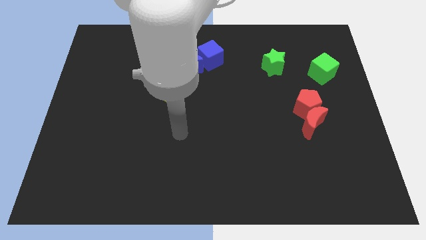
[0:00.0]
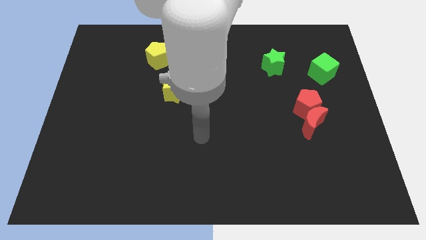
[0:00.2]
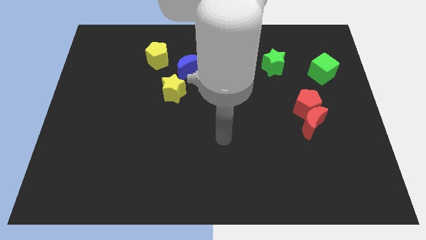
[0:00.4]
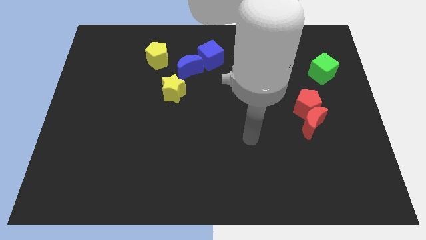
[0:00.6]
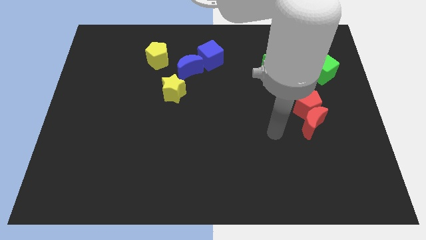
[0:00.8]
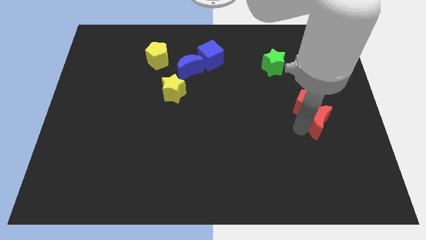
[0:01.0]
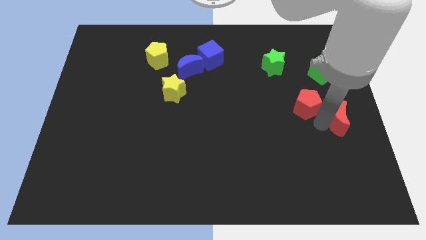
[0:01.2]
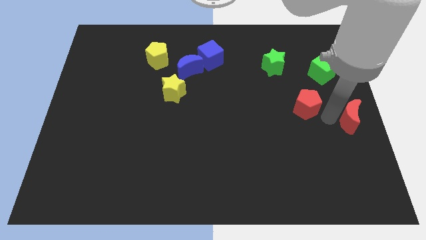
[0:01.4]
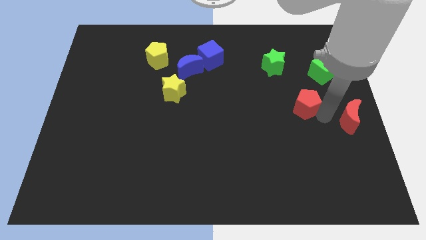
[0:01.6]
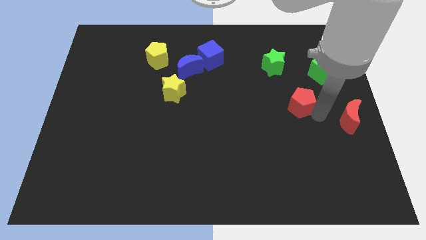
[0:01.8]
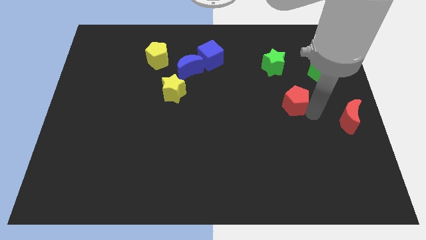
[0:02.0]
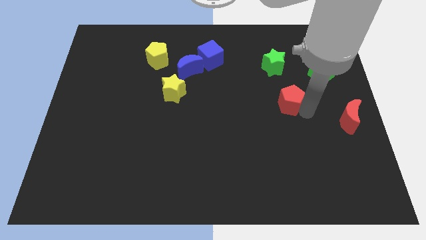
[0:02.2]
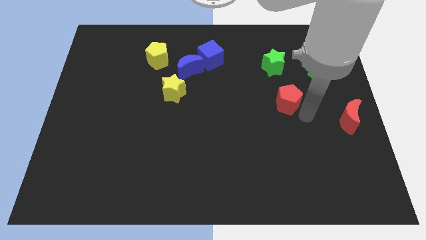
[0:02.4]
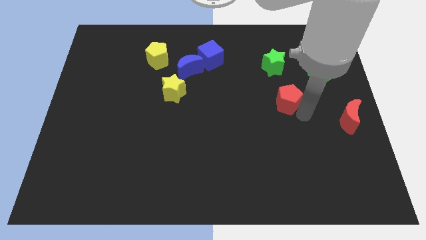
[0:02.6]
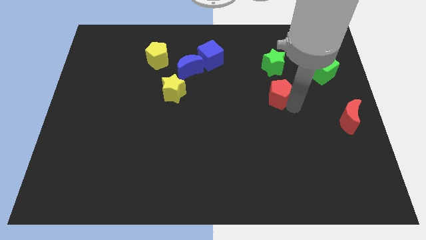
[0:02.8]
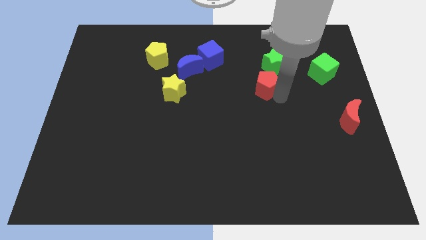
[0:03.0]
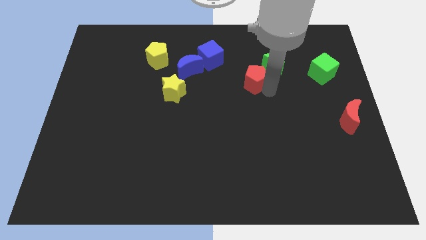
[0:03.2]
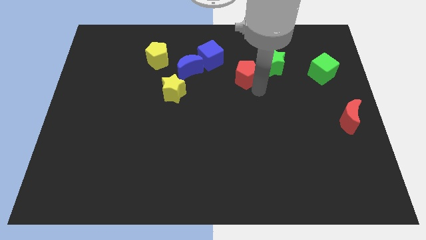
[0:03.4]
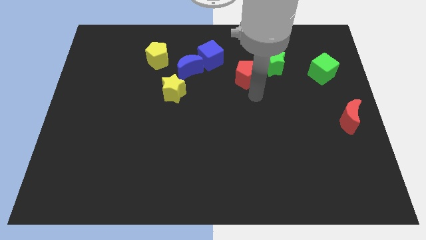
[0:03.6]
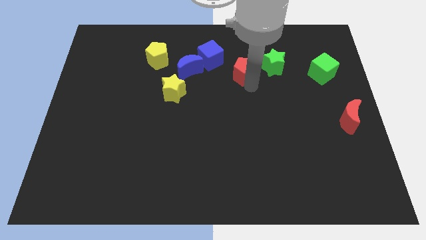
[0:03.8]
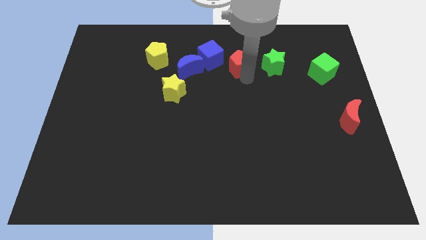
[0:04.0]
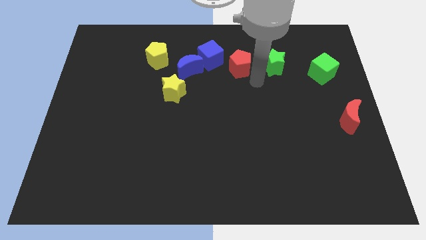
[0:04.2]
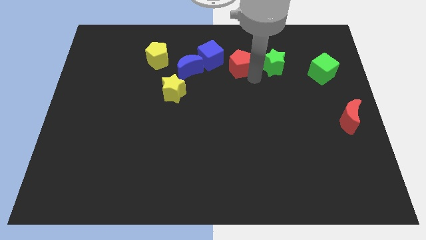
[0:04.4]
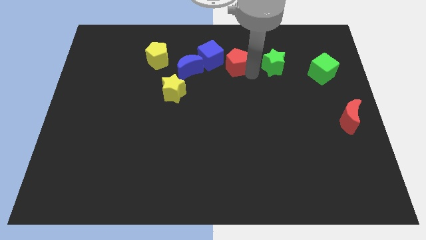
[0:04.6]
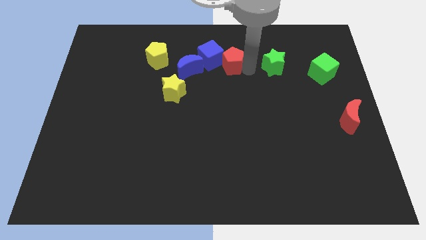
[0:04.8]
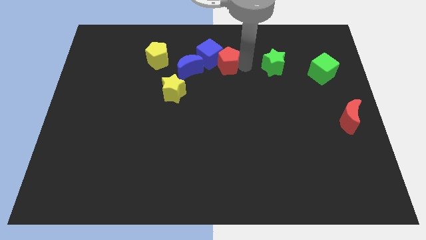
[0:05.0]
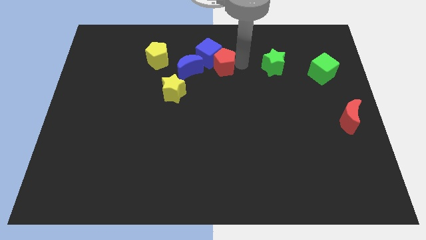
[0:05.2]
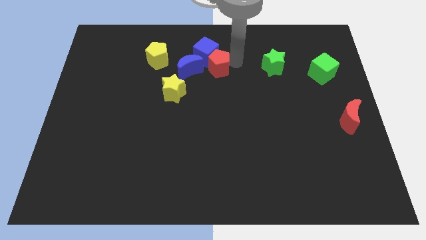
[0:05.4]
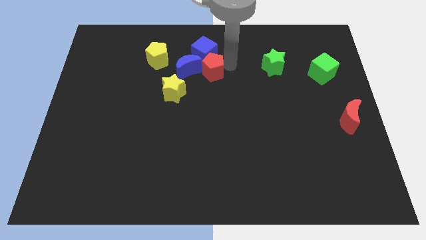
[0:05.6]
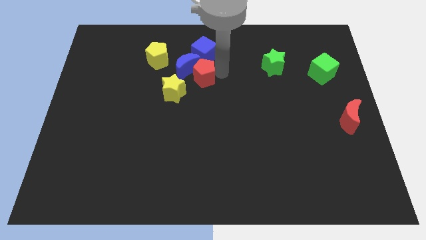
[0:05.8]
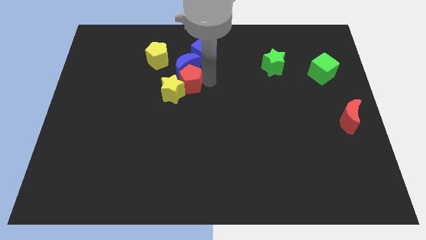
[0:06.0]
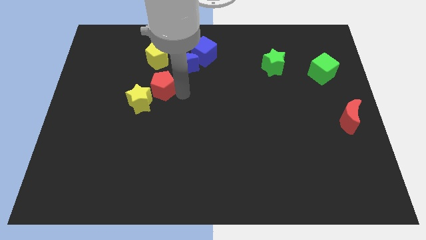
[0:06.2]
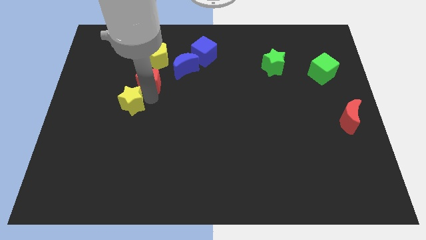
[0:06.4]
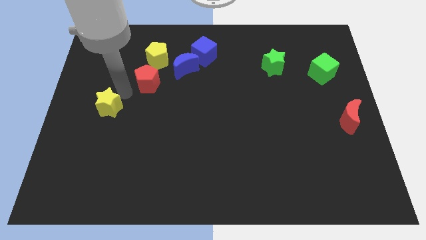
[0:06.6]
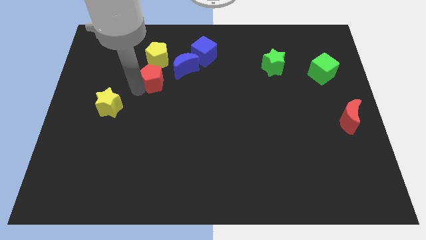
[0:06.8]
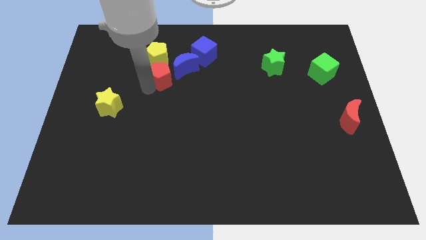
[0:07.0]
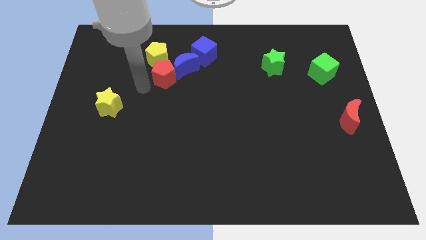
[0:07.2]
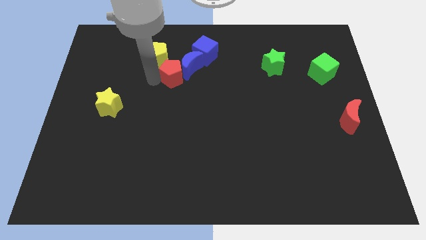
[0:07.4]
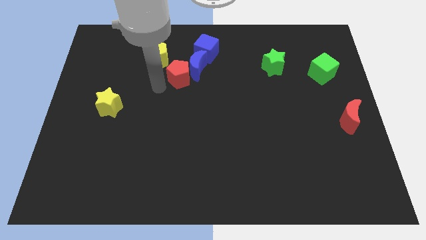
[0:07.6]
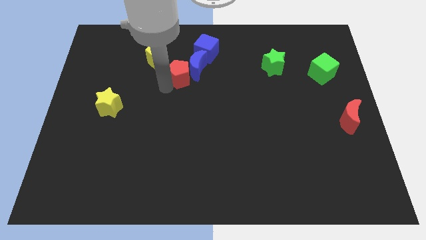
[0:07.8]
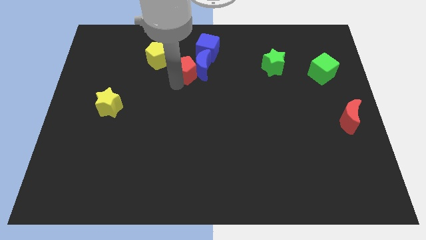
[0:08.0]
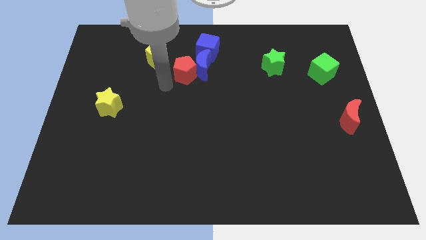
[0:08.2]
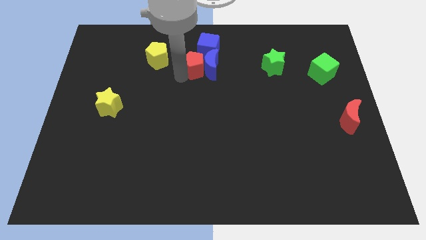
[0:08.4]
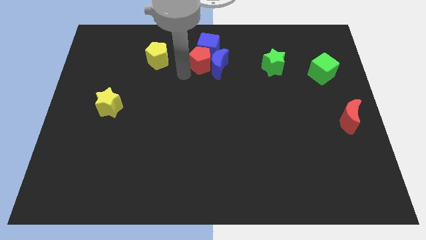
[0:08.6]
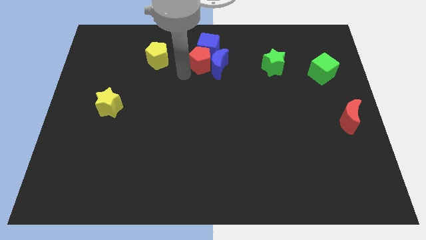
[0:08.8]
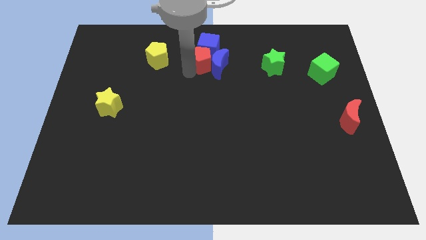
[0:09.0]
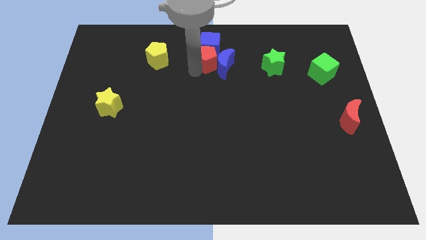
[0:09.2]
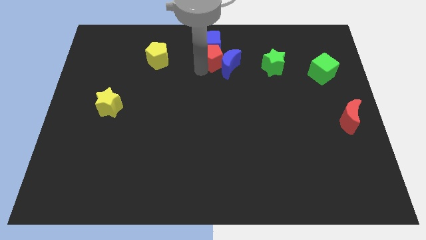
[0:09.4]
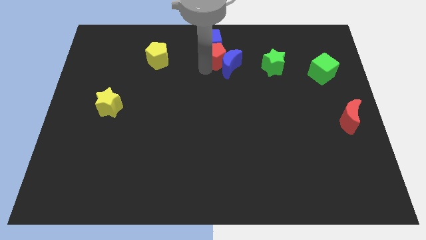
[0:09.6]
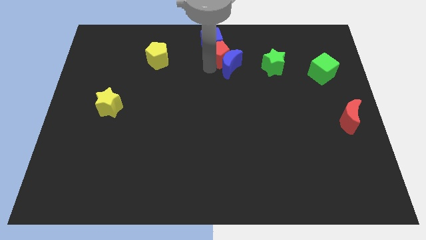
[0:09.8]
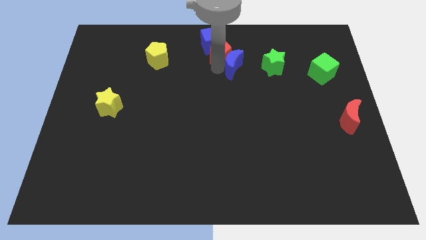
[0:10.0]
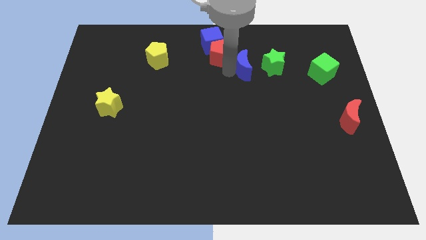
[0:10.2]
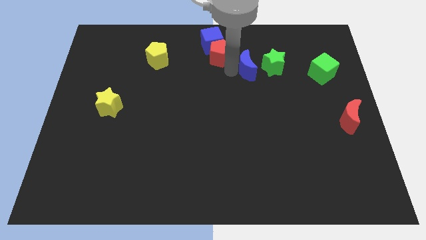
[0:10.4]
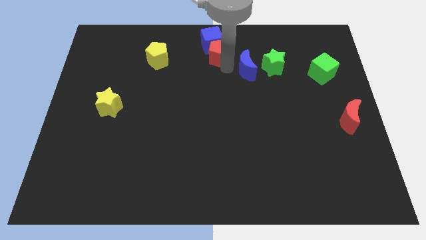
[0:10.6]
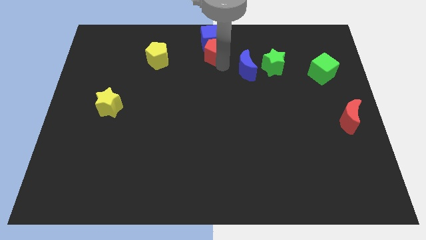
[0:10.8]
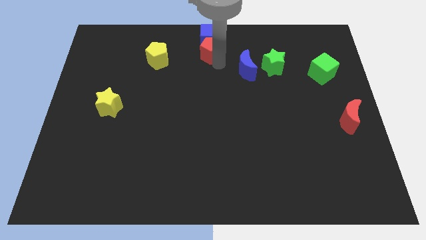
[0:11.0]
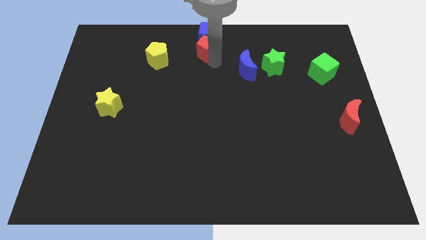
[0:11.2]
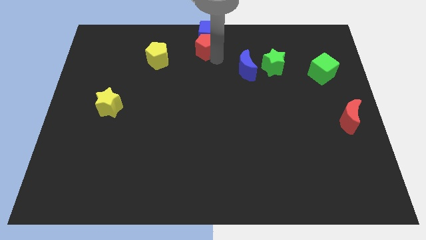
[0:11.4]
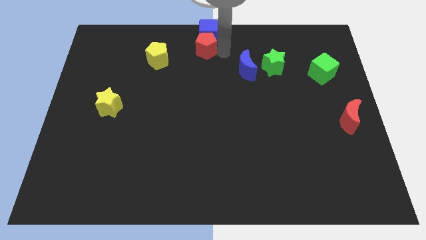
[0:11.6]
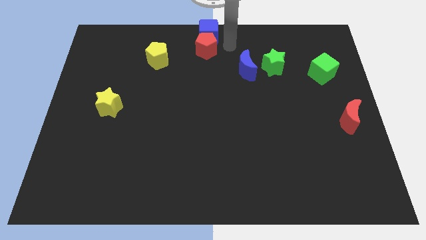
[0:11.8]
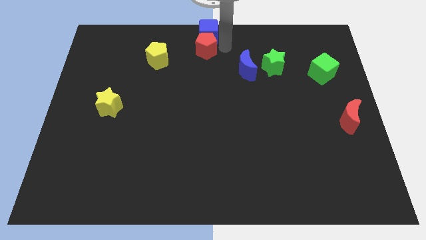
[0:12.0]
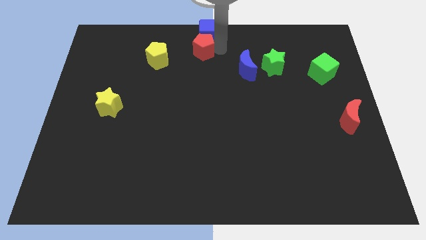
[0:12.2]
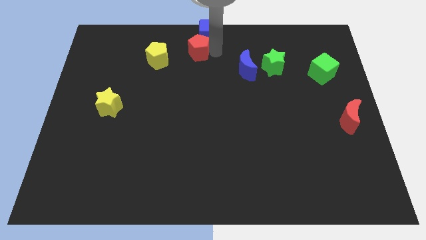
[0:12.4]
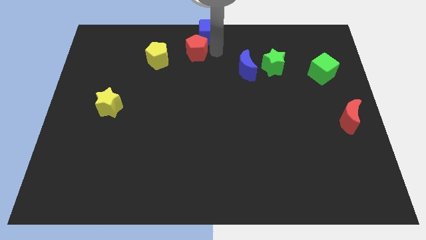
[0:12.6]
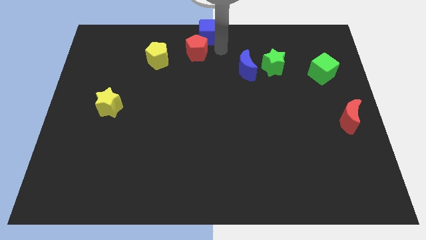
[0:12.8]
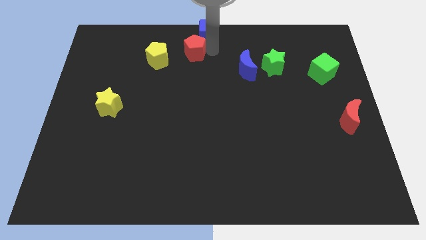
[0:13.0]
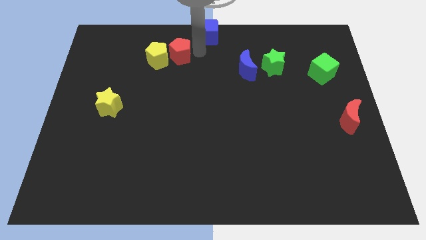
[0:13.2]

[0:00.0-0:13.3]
push the red pentagon towards the yellow pentagon

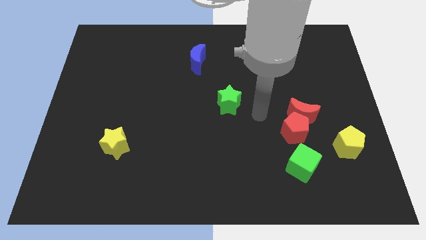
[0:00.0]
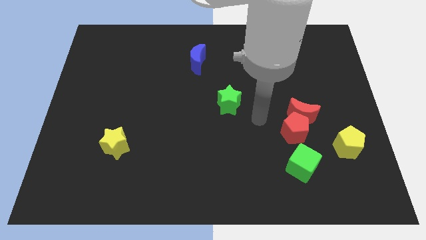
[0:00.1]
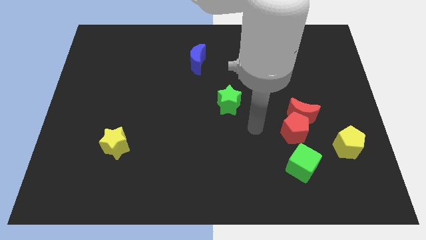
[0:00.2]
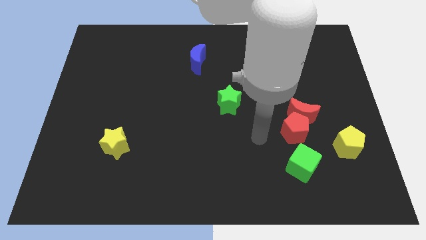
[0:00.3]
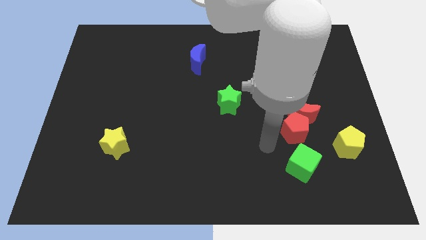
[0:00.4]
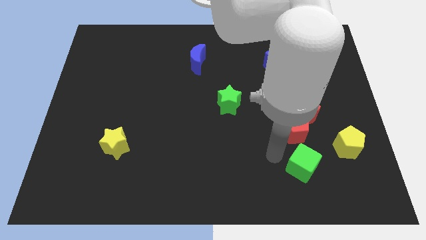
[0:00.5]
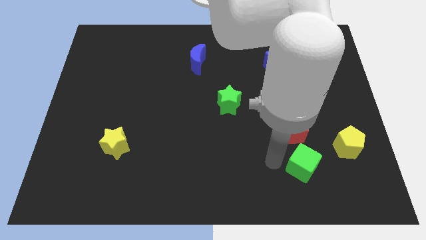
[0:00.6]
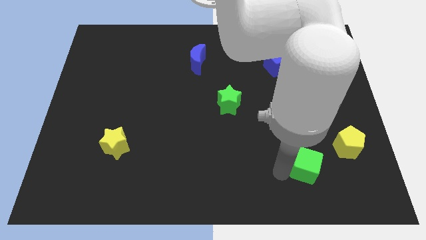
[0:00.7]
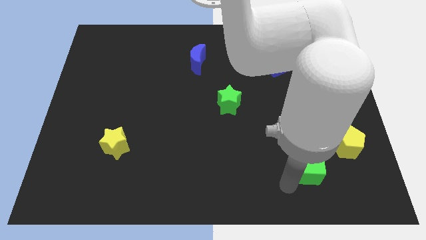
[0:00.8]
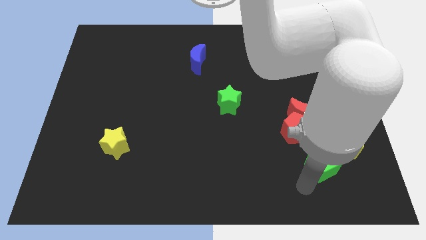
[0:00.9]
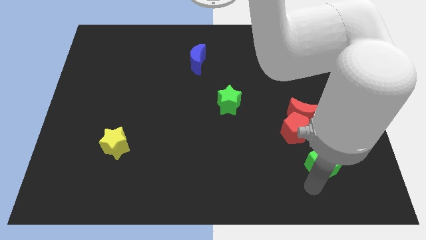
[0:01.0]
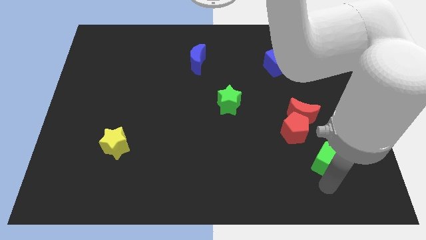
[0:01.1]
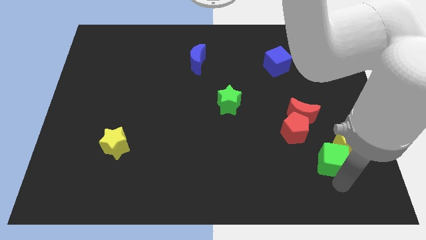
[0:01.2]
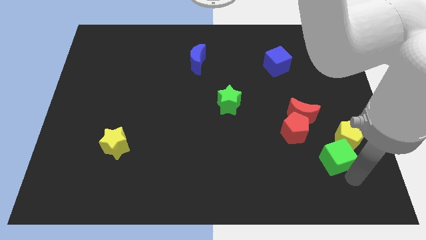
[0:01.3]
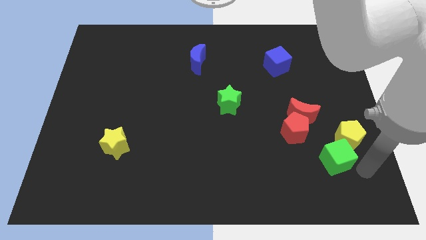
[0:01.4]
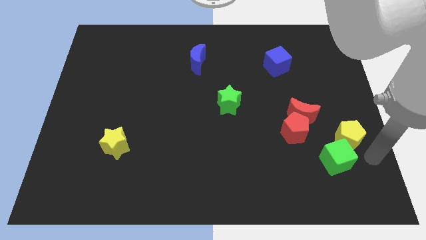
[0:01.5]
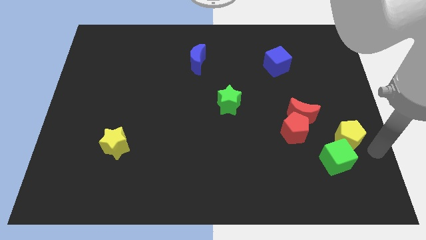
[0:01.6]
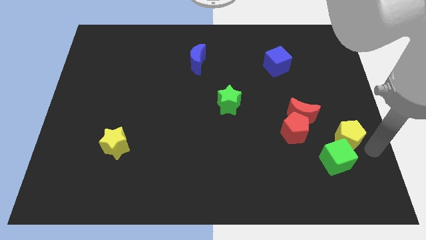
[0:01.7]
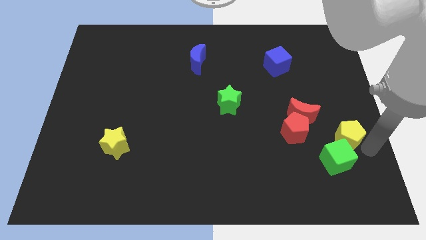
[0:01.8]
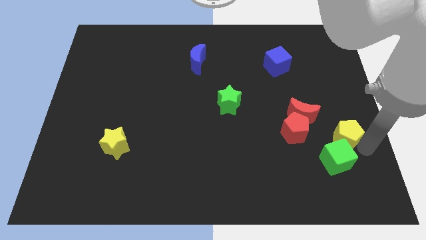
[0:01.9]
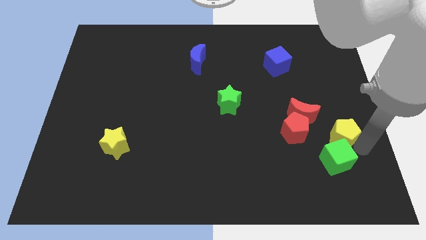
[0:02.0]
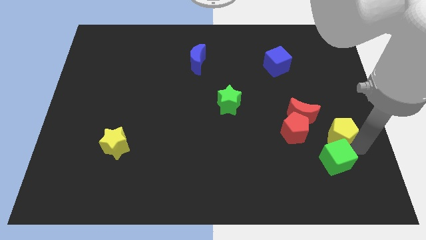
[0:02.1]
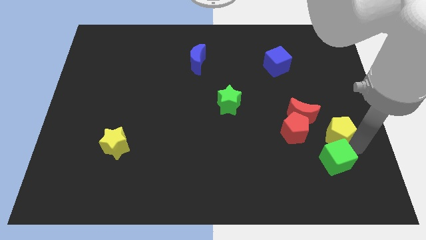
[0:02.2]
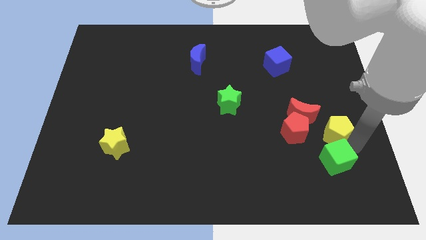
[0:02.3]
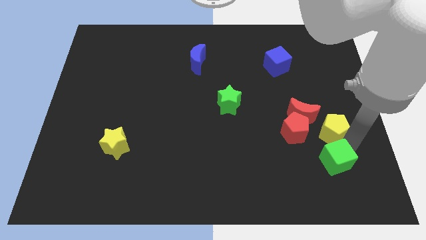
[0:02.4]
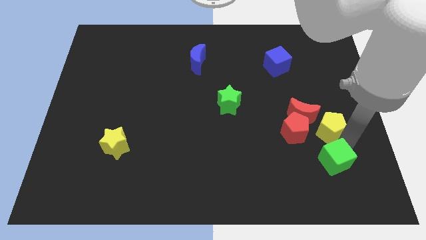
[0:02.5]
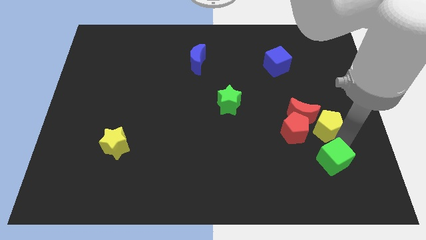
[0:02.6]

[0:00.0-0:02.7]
push the yellow pentagon next to the red moon
